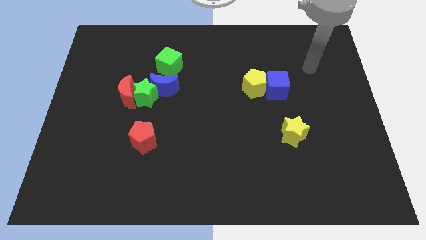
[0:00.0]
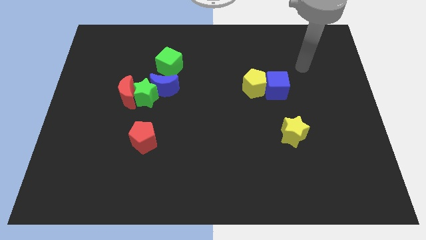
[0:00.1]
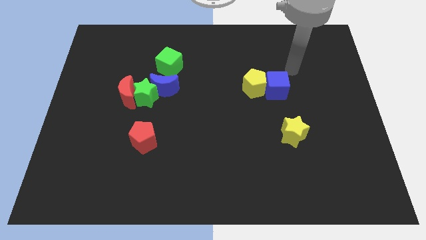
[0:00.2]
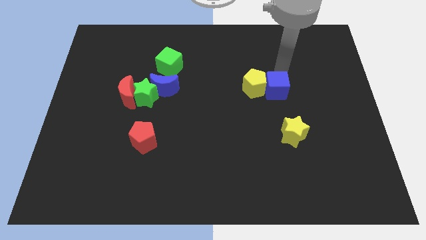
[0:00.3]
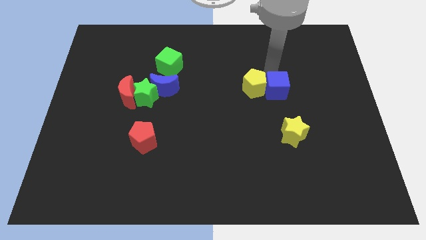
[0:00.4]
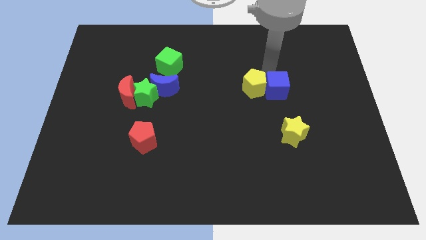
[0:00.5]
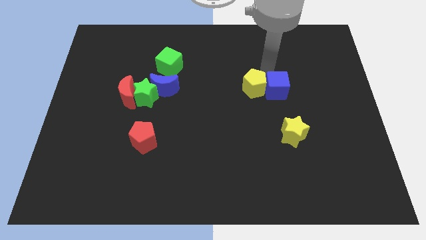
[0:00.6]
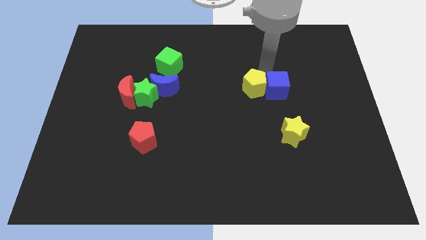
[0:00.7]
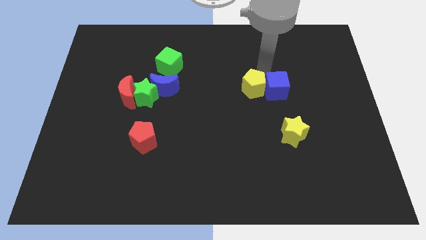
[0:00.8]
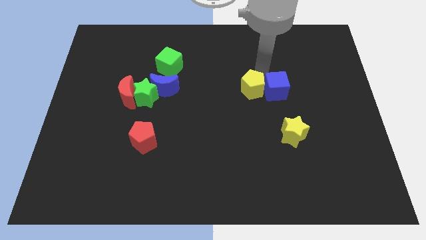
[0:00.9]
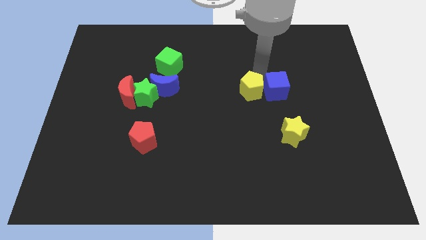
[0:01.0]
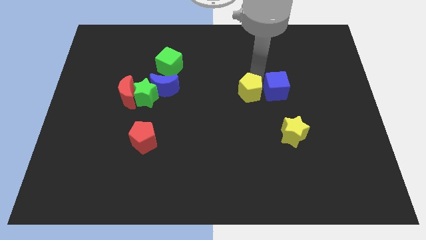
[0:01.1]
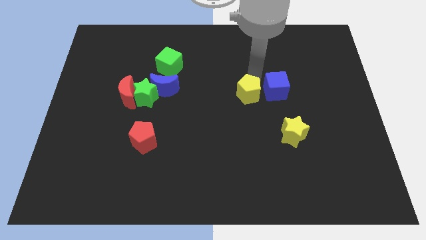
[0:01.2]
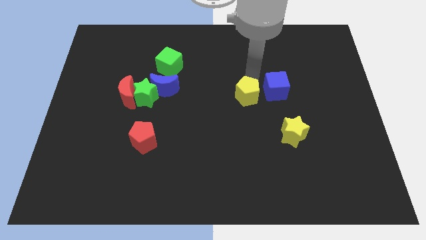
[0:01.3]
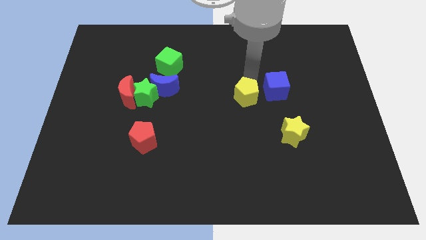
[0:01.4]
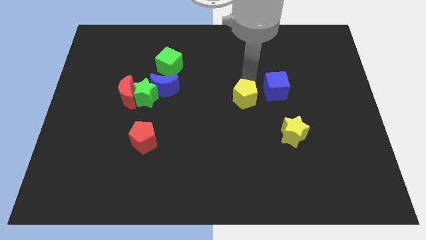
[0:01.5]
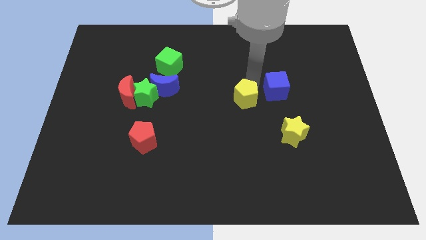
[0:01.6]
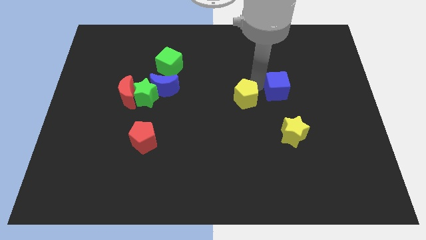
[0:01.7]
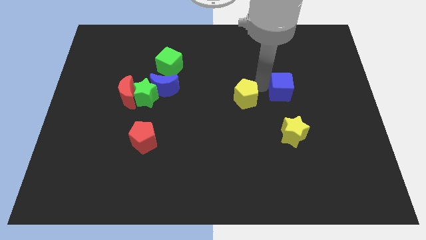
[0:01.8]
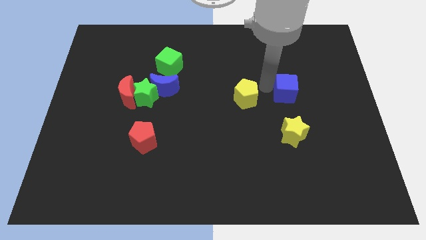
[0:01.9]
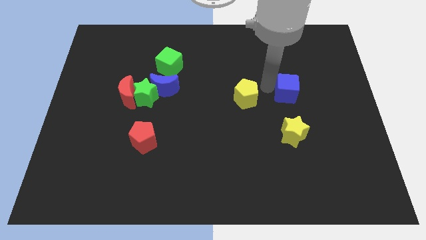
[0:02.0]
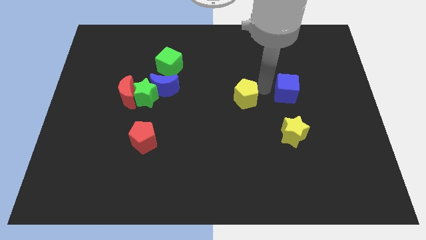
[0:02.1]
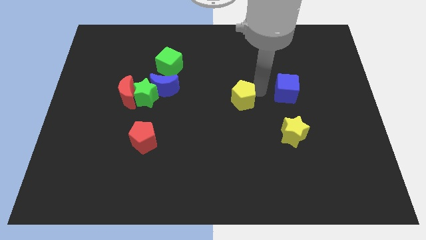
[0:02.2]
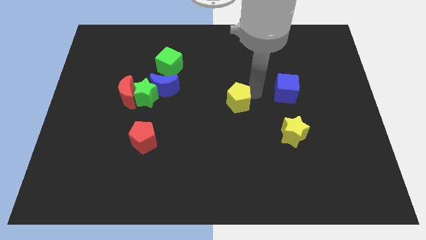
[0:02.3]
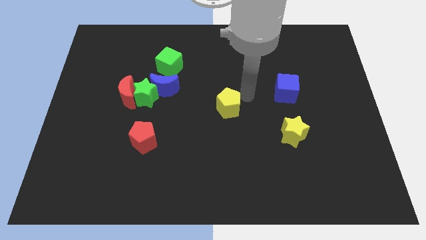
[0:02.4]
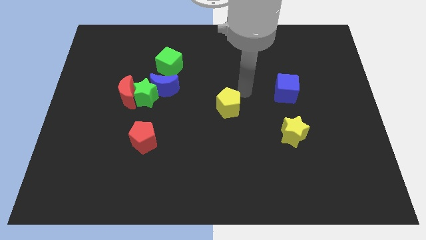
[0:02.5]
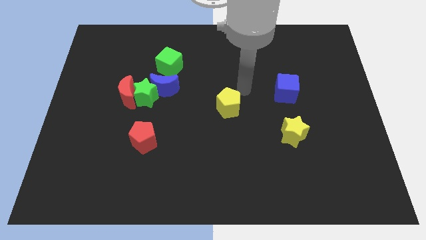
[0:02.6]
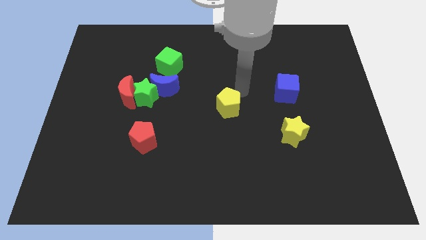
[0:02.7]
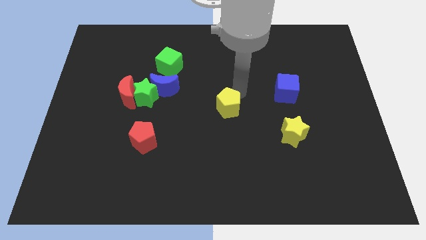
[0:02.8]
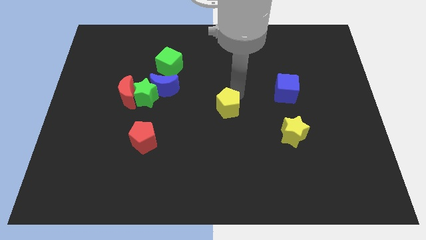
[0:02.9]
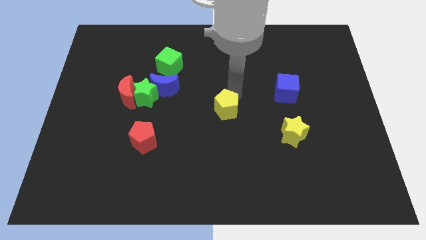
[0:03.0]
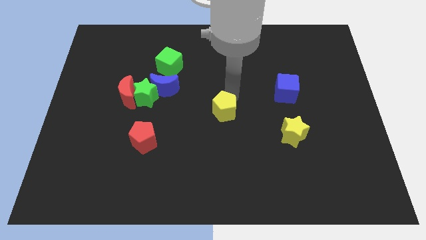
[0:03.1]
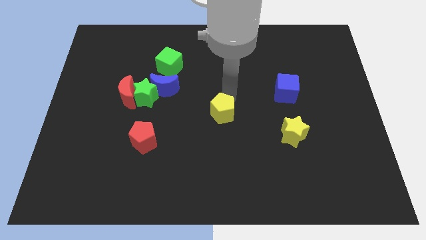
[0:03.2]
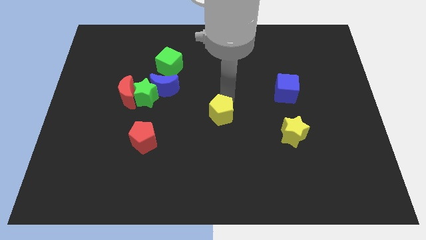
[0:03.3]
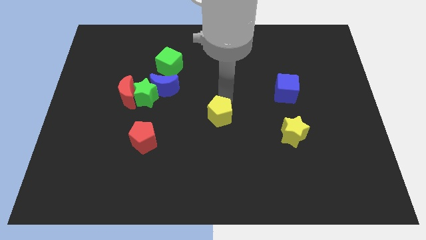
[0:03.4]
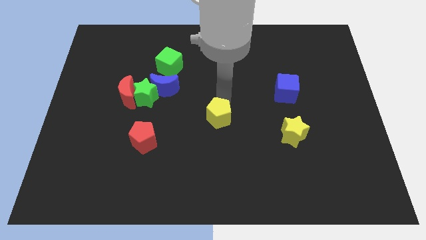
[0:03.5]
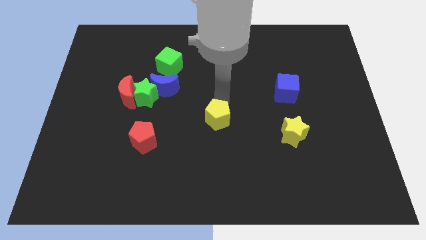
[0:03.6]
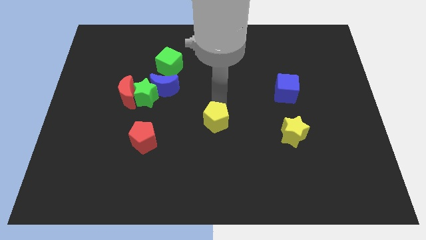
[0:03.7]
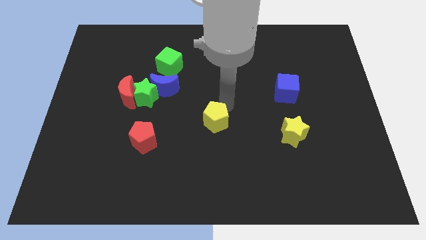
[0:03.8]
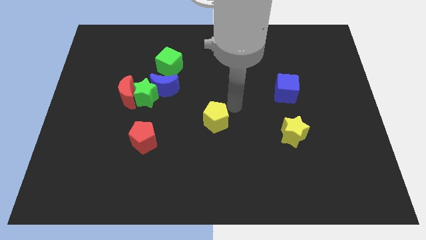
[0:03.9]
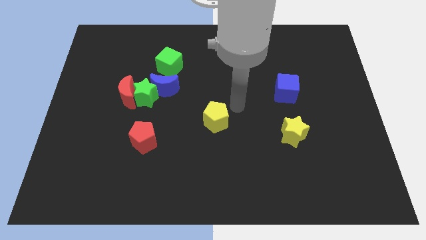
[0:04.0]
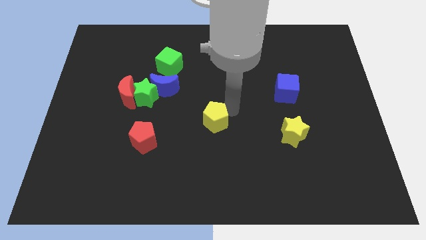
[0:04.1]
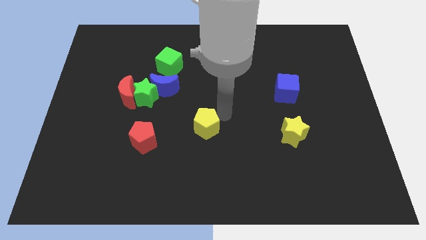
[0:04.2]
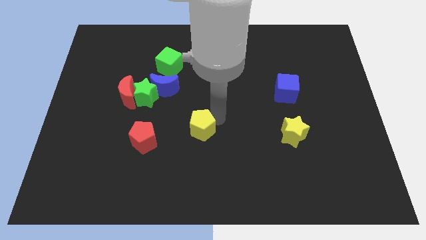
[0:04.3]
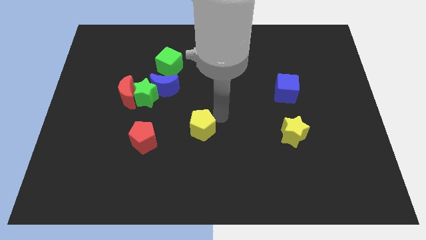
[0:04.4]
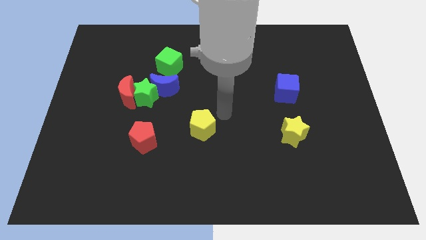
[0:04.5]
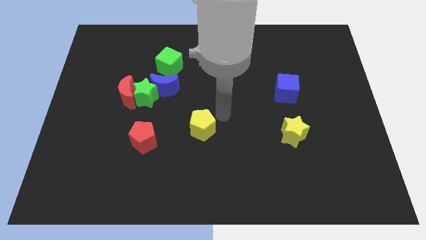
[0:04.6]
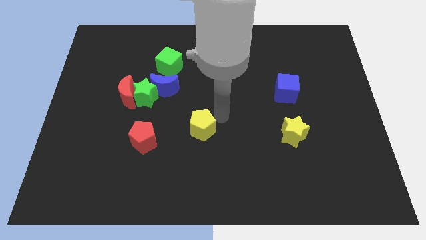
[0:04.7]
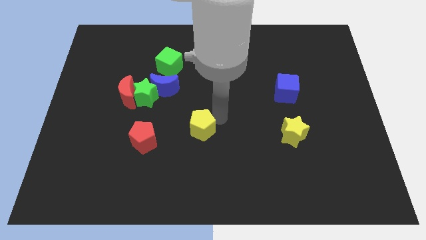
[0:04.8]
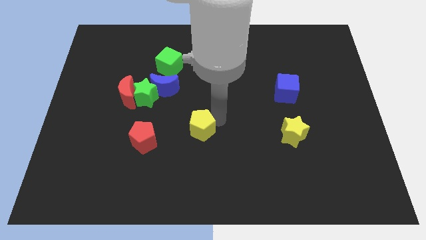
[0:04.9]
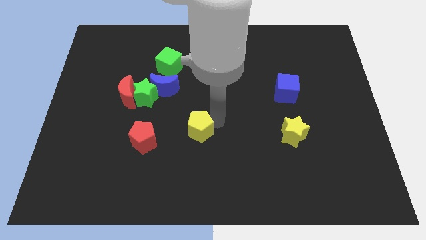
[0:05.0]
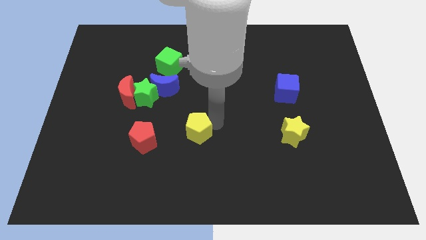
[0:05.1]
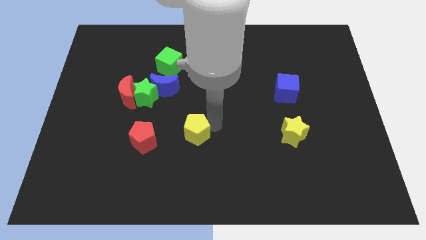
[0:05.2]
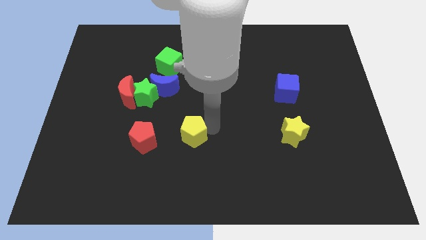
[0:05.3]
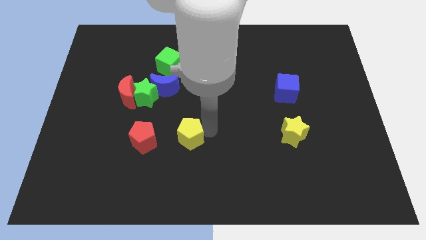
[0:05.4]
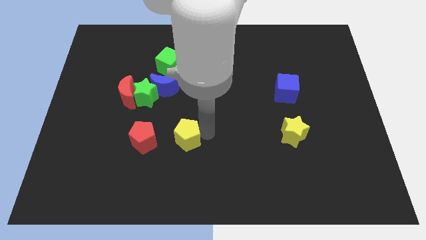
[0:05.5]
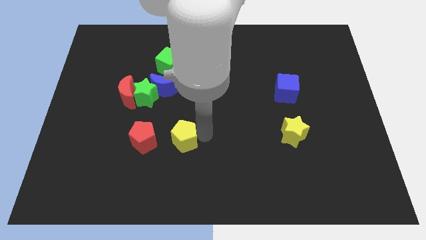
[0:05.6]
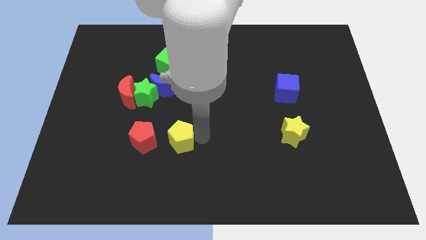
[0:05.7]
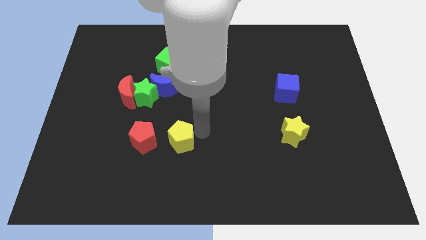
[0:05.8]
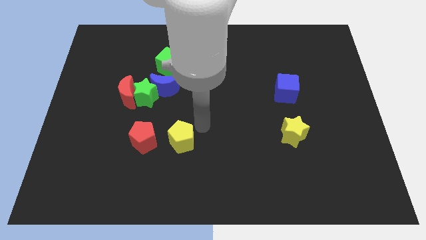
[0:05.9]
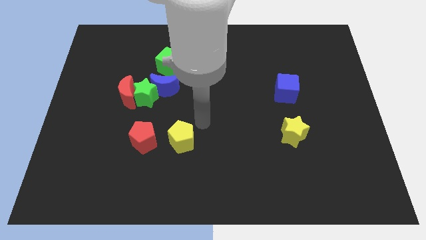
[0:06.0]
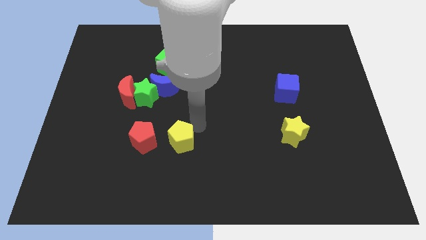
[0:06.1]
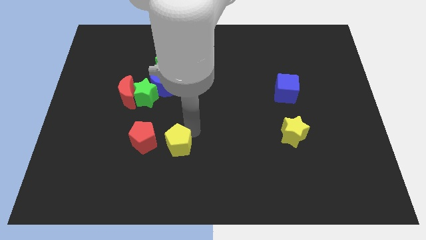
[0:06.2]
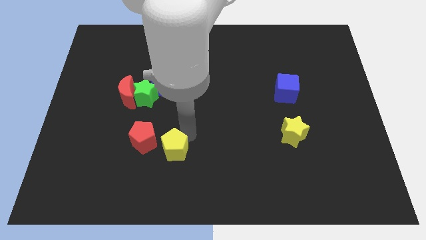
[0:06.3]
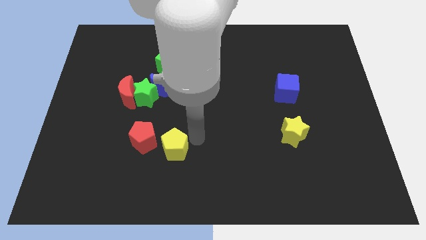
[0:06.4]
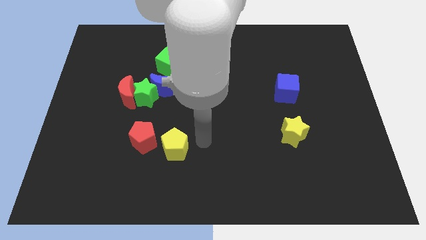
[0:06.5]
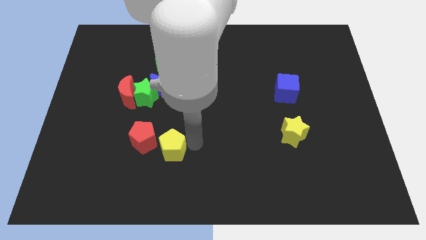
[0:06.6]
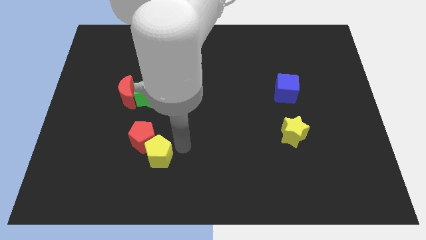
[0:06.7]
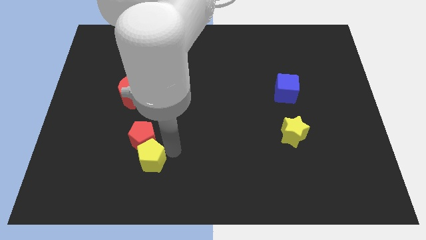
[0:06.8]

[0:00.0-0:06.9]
push the yellow pentagon to the bottom left of the red pentagon

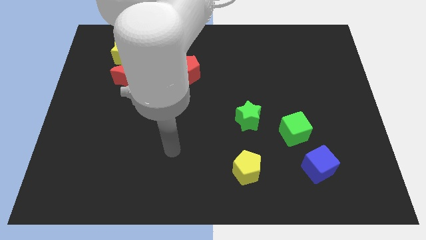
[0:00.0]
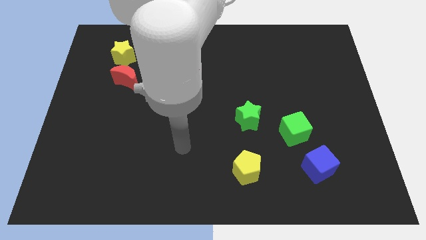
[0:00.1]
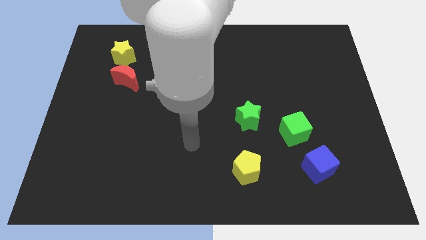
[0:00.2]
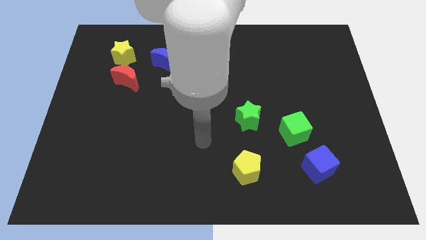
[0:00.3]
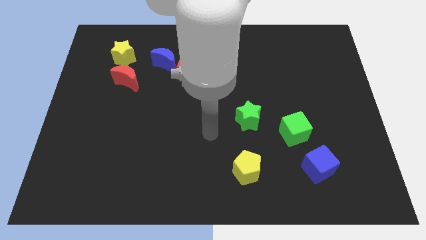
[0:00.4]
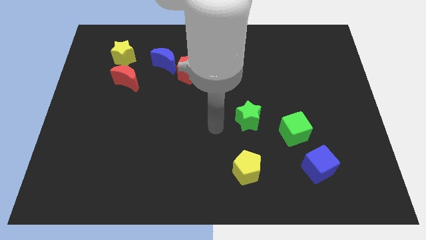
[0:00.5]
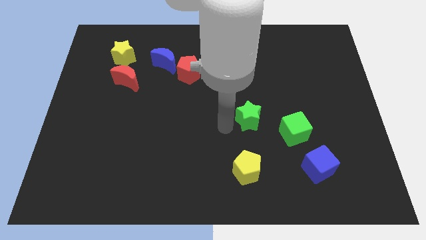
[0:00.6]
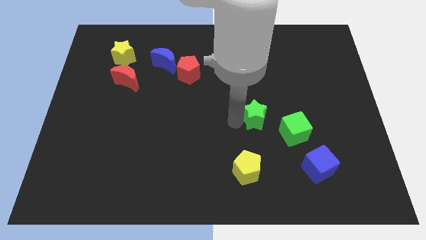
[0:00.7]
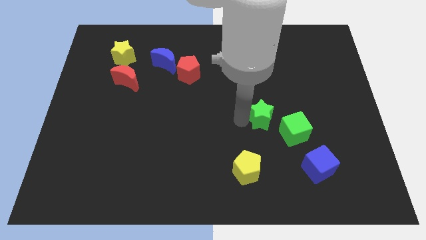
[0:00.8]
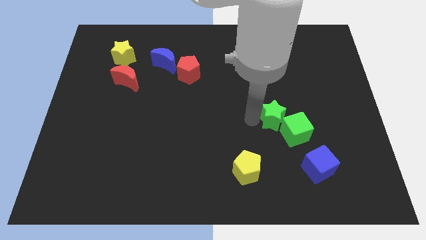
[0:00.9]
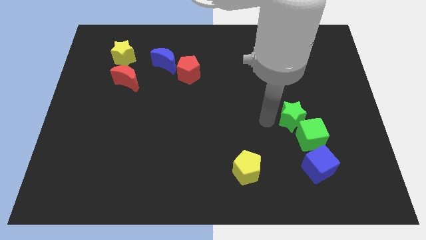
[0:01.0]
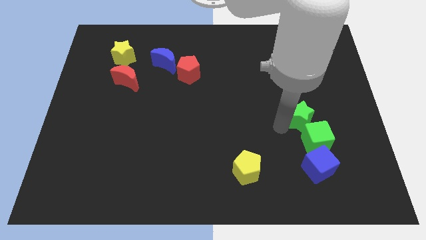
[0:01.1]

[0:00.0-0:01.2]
slide the green cube to the top right of the blue cube
